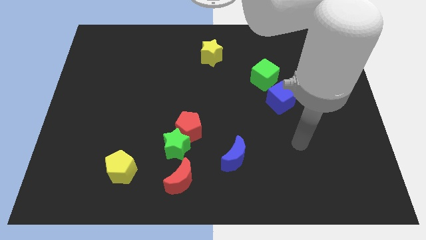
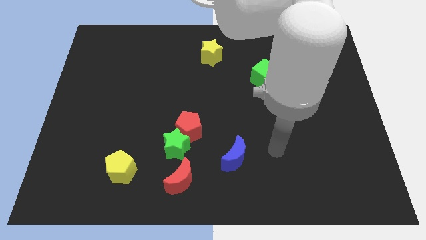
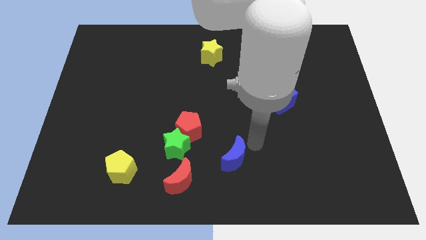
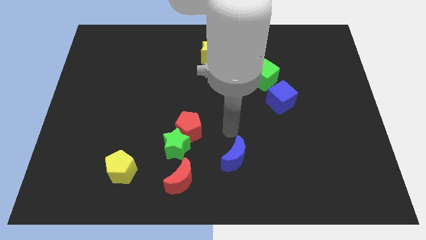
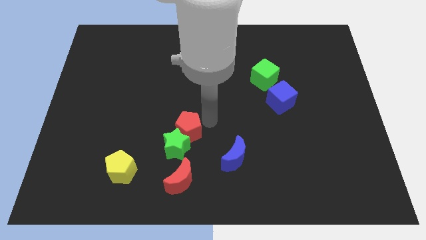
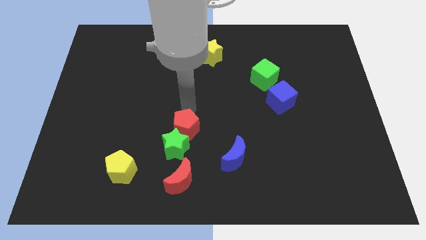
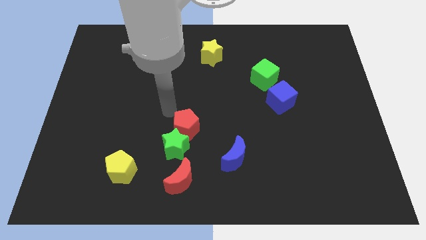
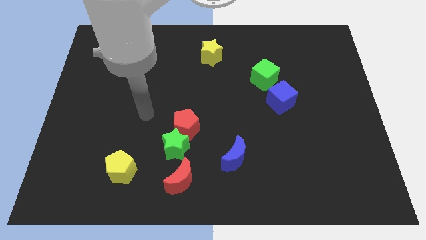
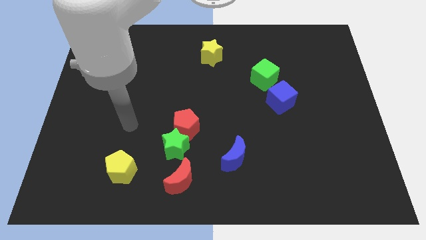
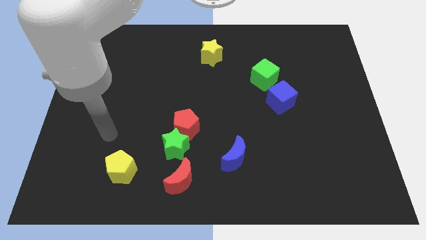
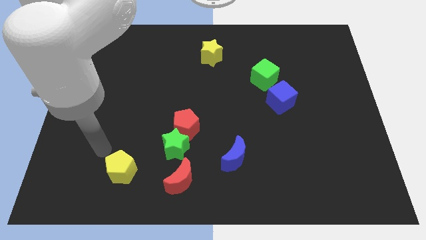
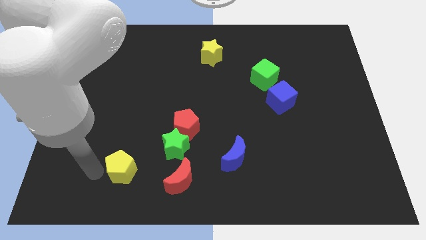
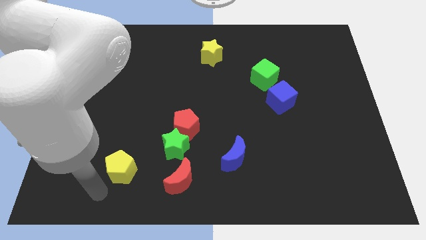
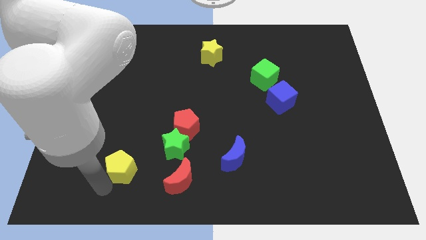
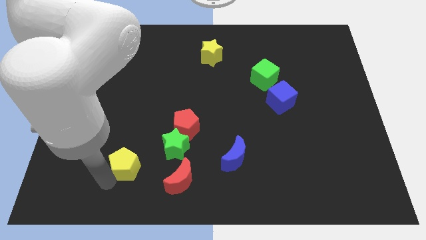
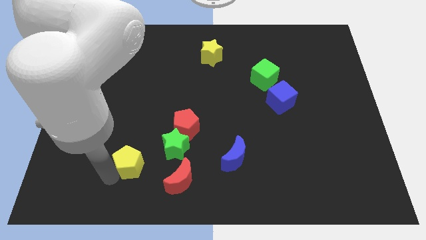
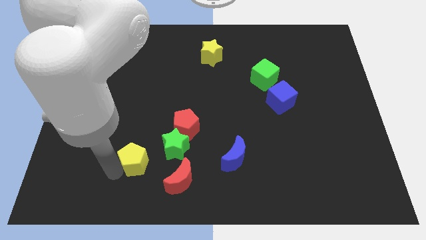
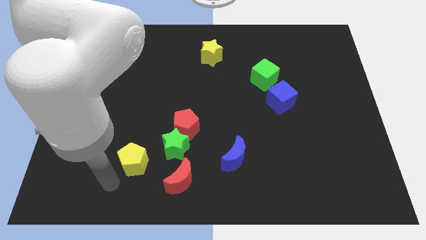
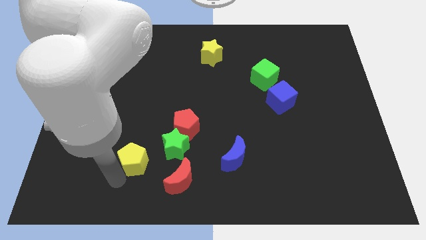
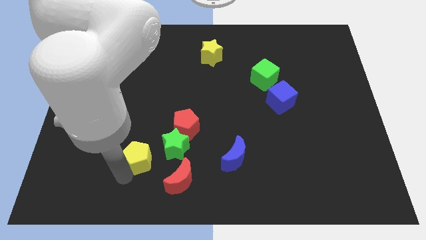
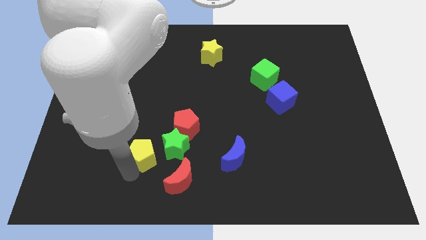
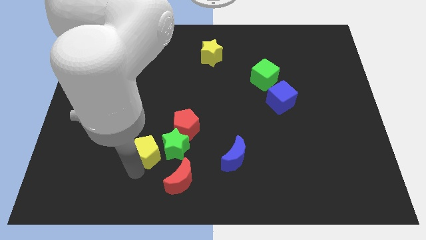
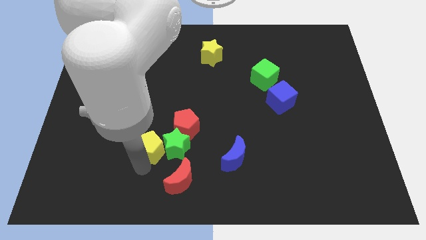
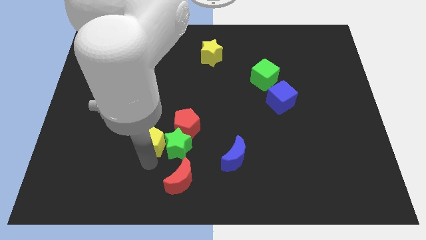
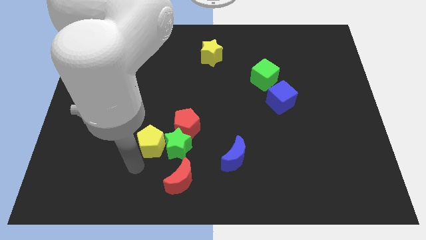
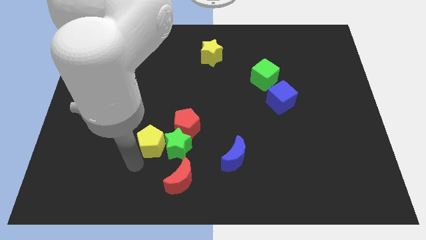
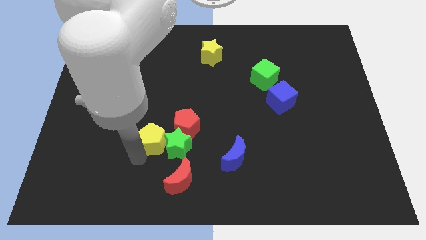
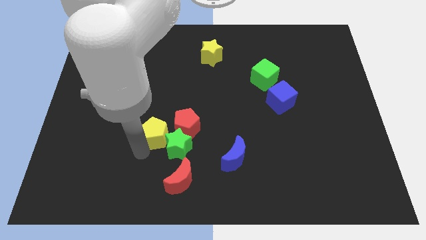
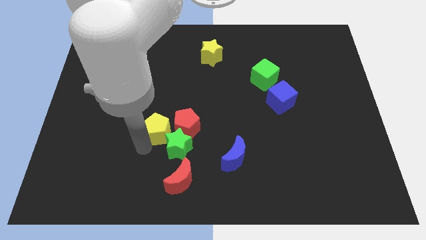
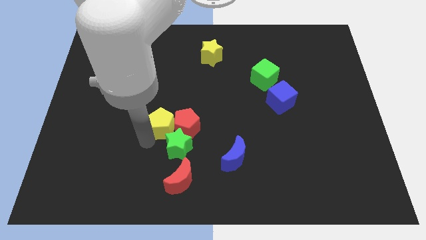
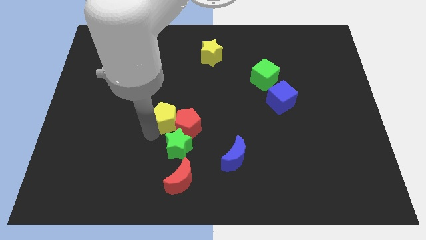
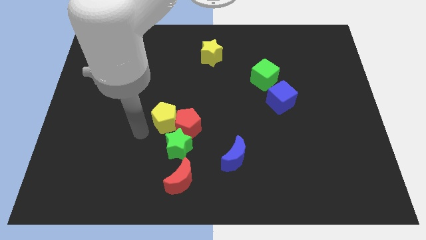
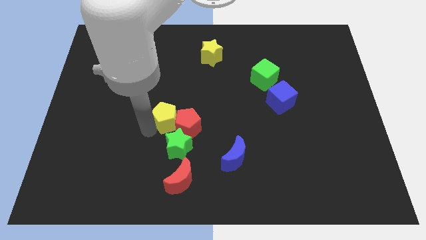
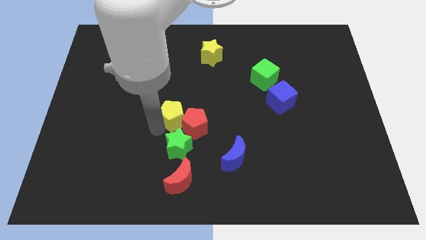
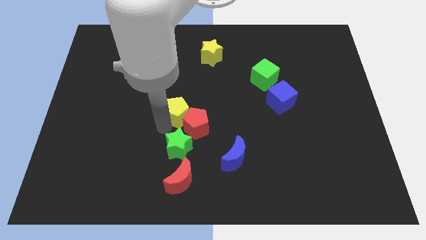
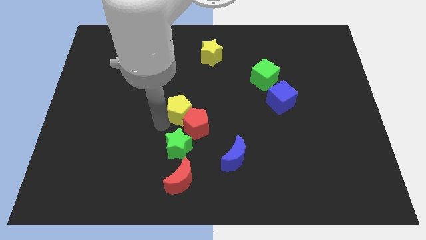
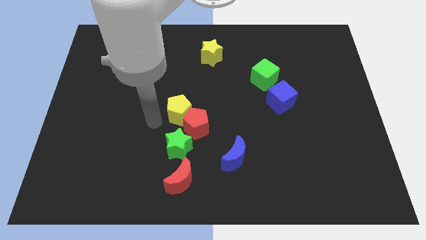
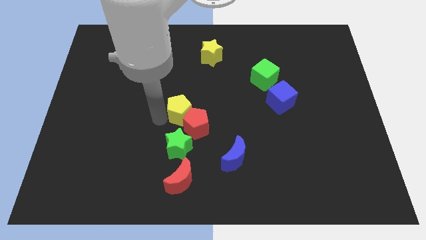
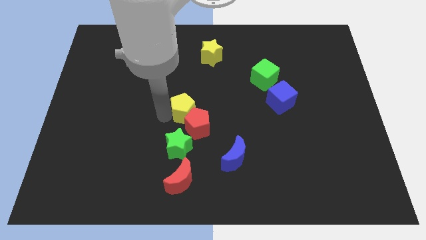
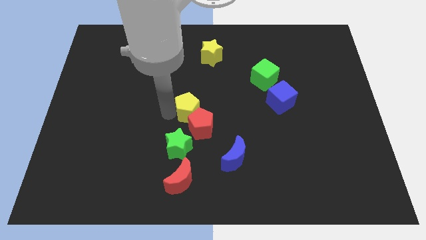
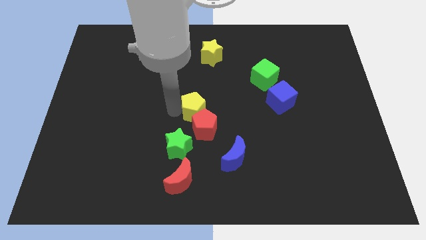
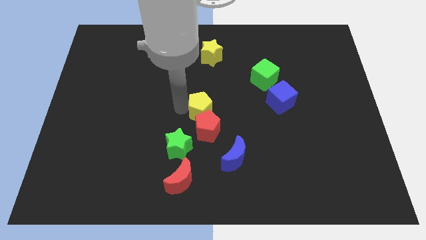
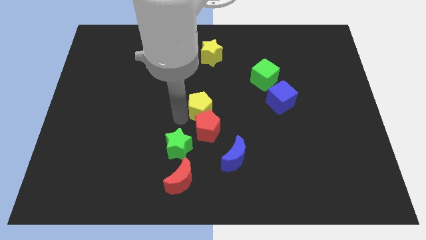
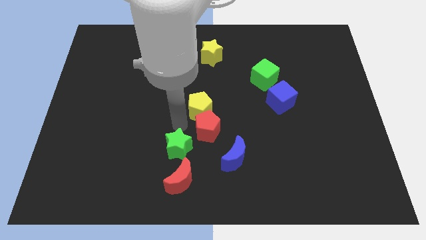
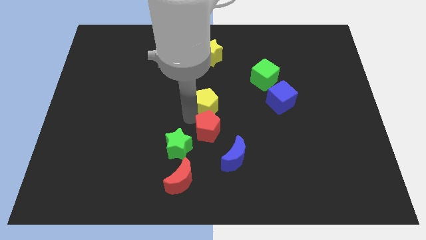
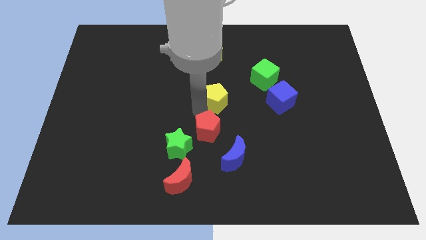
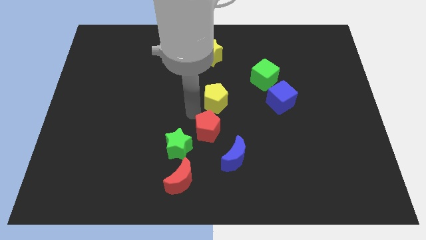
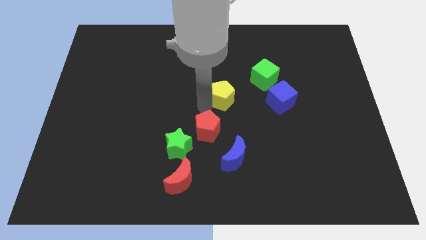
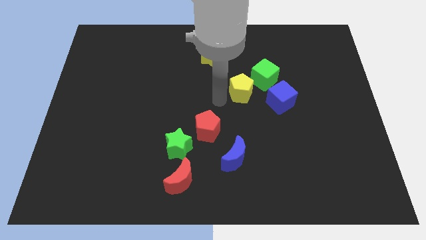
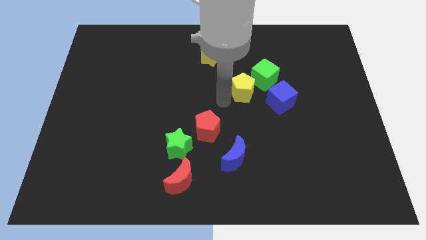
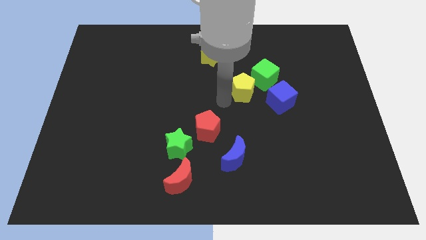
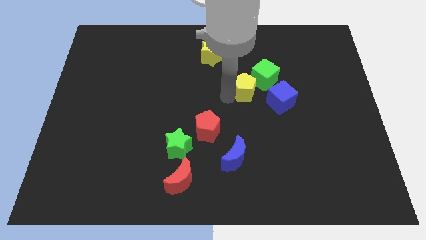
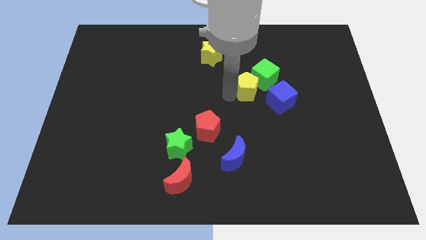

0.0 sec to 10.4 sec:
put the yellow pentagon next to the green cube

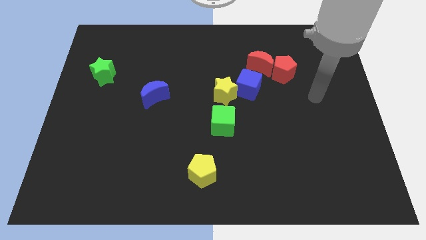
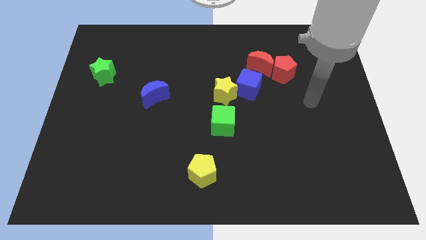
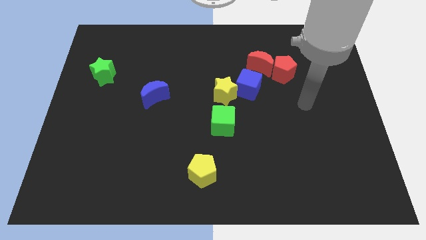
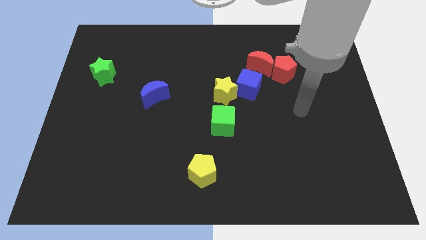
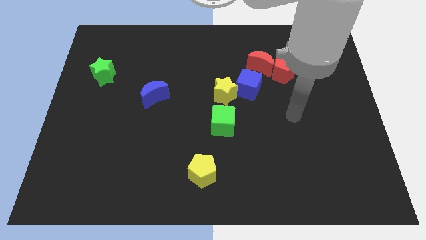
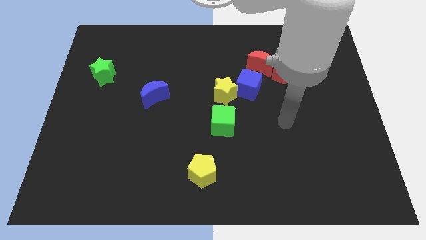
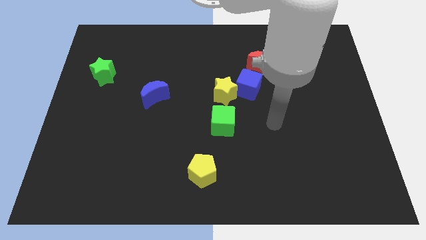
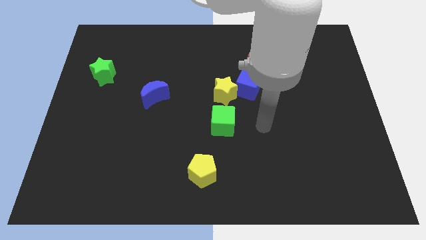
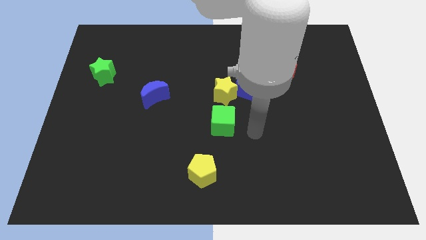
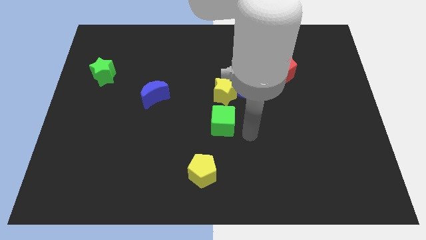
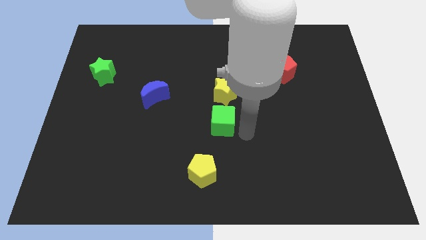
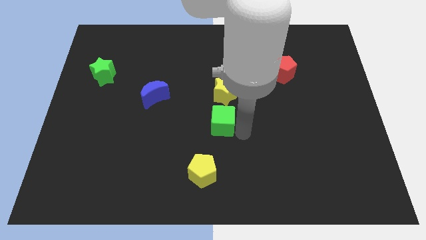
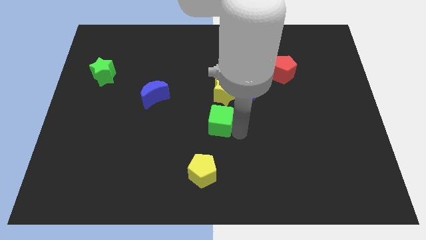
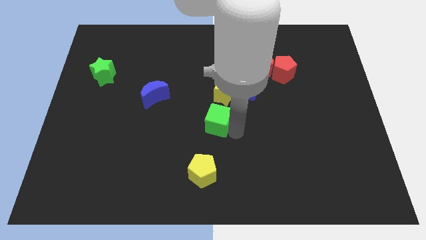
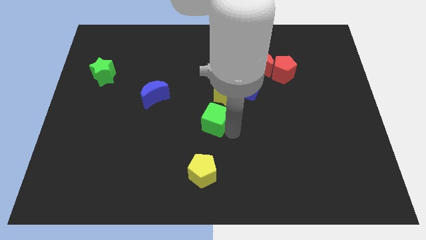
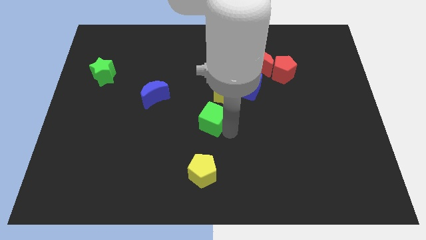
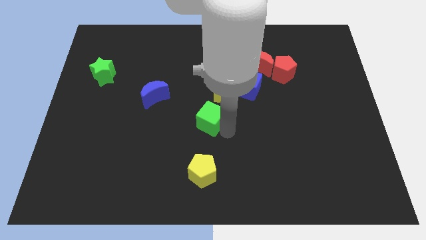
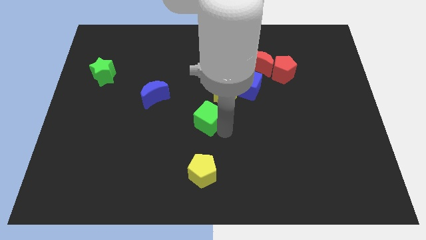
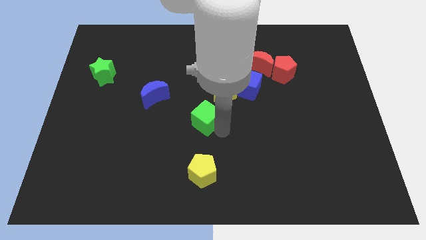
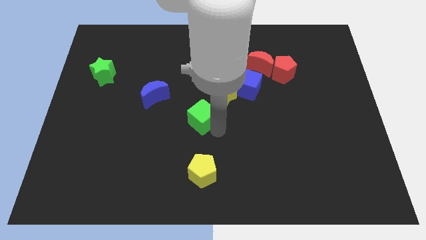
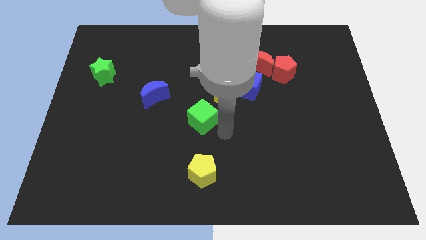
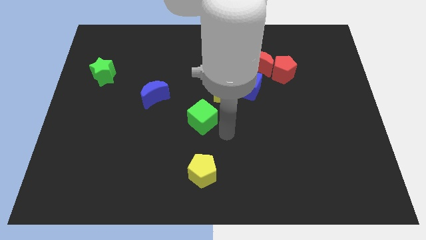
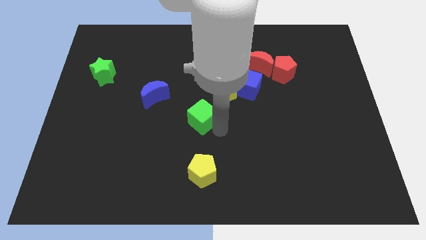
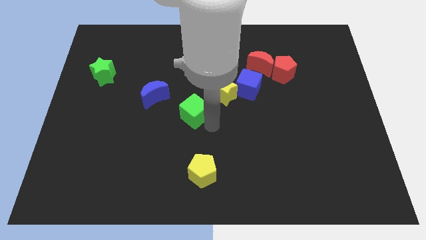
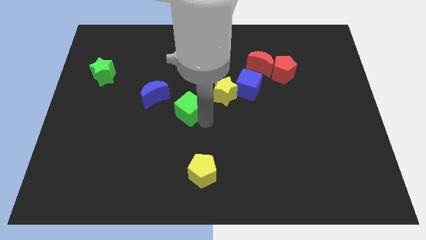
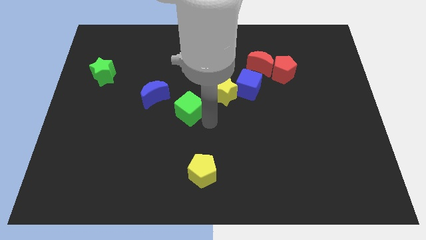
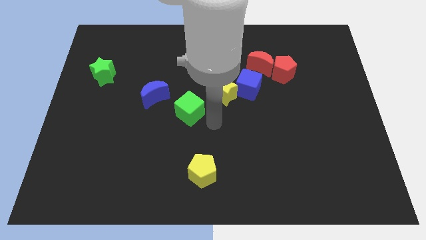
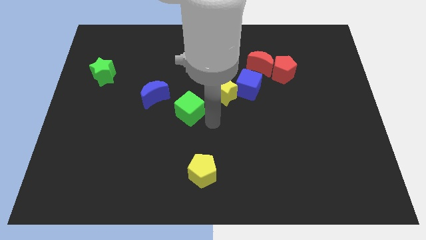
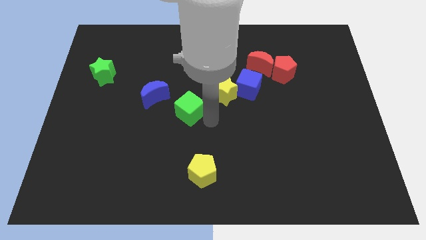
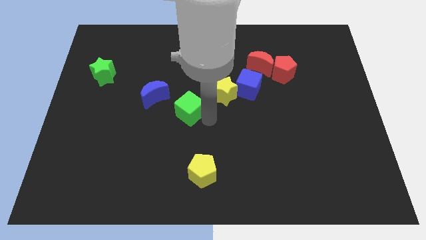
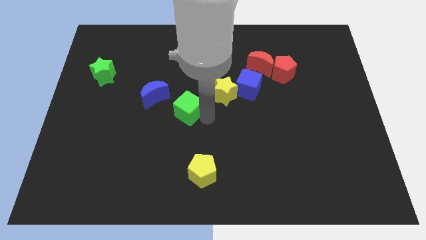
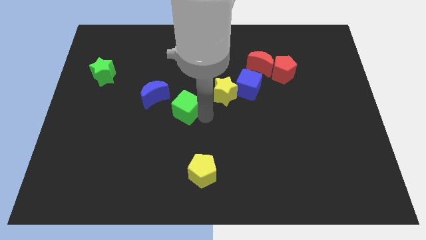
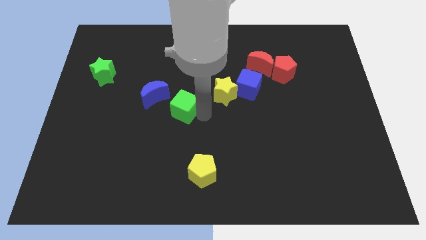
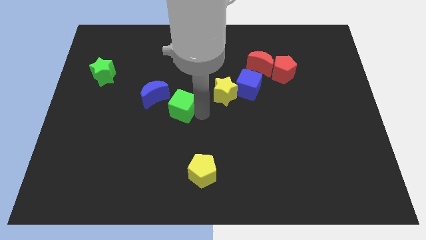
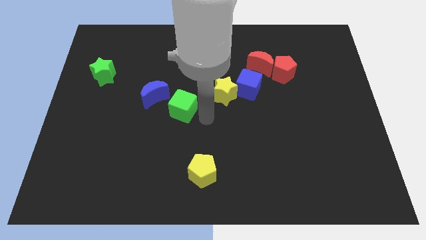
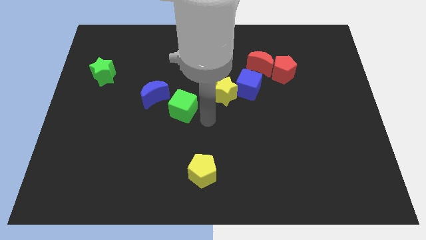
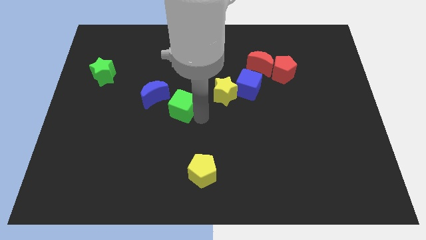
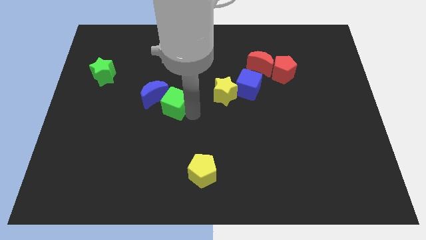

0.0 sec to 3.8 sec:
slide the green cube to the blue moon
